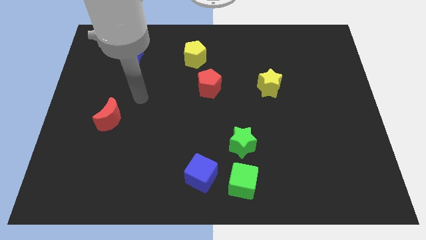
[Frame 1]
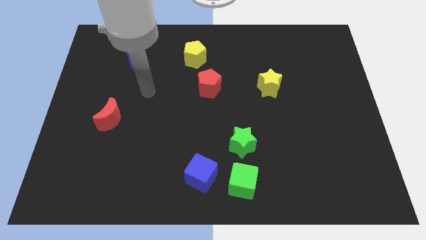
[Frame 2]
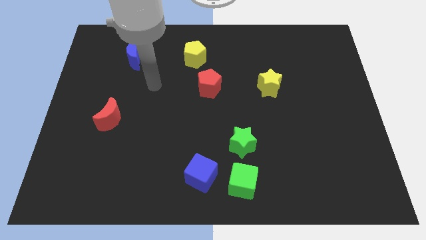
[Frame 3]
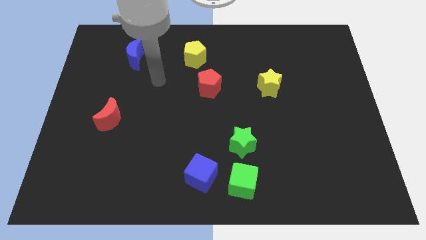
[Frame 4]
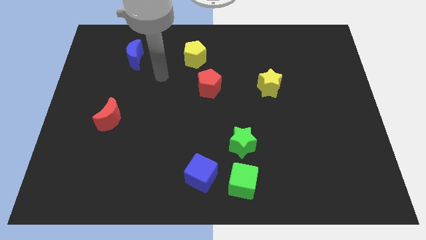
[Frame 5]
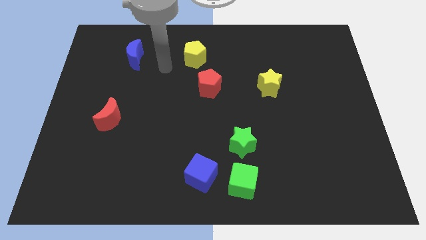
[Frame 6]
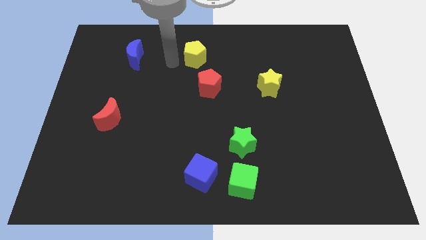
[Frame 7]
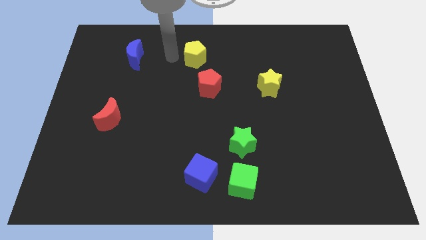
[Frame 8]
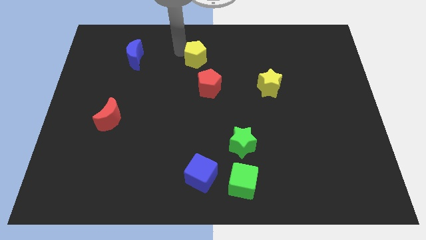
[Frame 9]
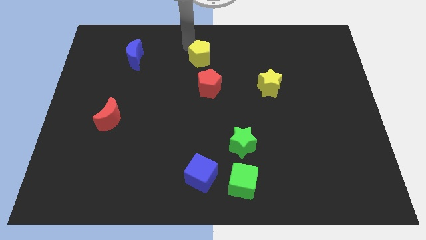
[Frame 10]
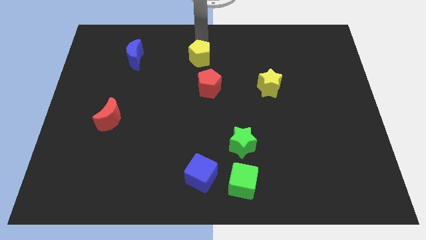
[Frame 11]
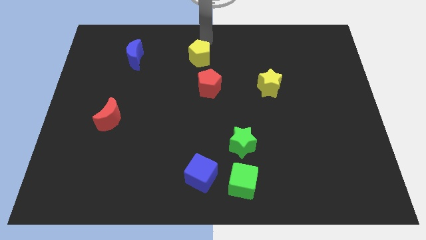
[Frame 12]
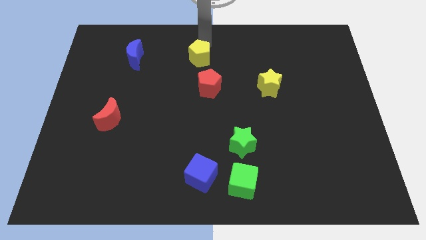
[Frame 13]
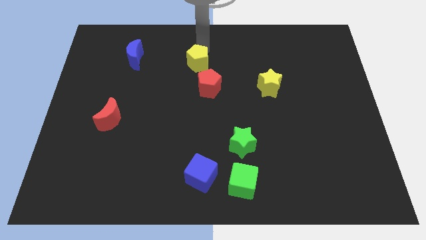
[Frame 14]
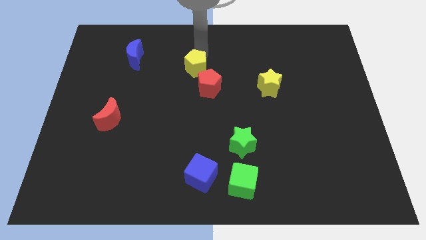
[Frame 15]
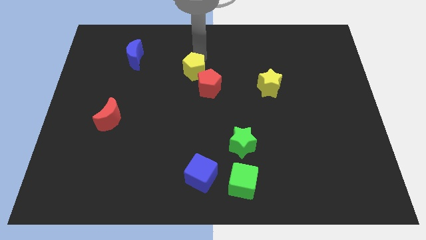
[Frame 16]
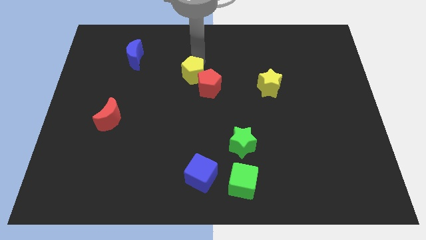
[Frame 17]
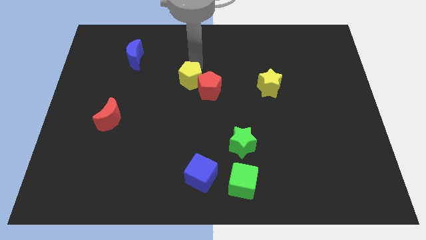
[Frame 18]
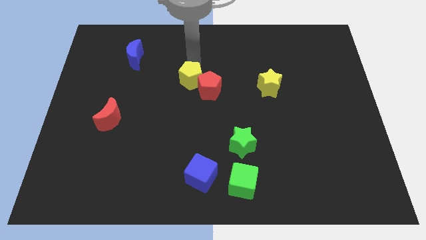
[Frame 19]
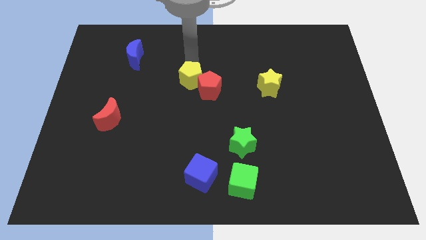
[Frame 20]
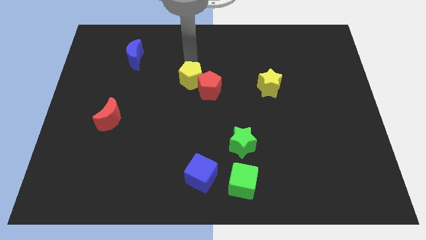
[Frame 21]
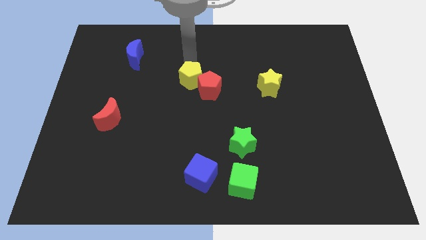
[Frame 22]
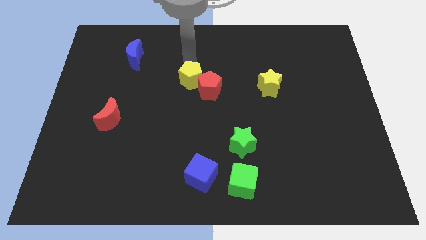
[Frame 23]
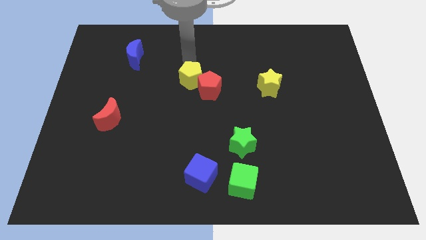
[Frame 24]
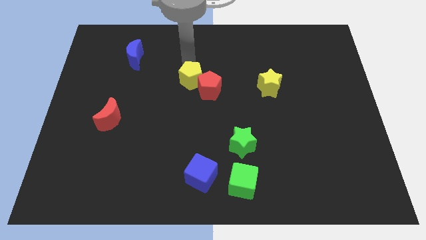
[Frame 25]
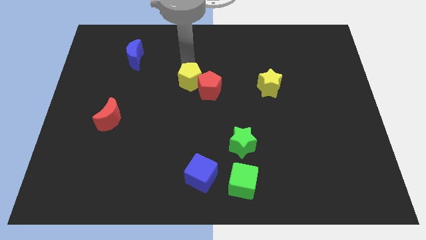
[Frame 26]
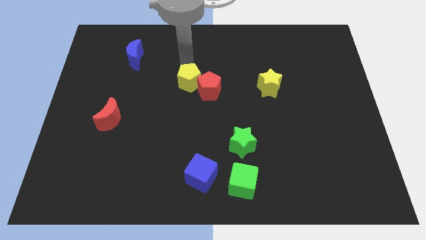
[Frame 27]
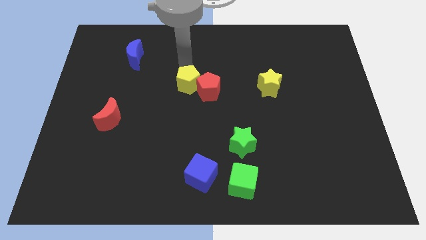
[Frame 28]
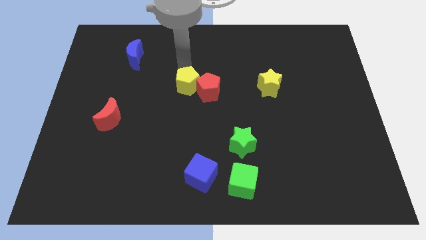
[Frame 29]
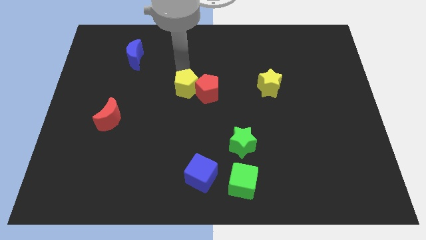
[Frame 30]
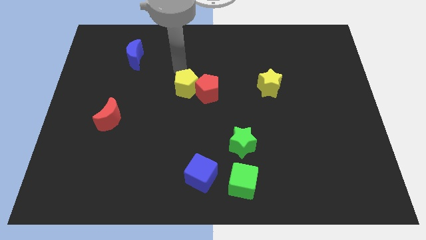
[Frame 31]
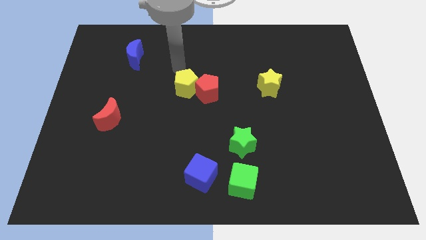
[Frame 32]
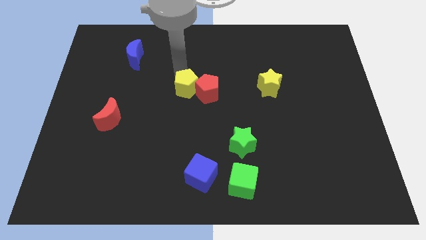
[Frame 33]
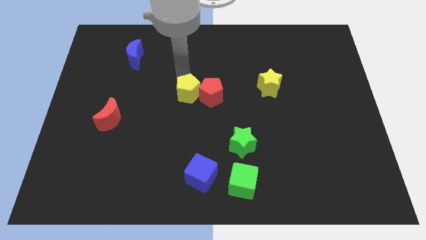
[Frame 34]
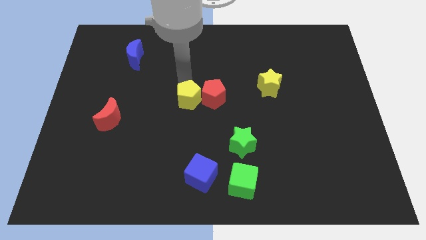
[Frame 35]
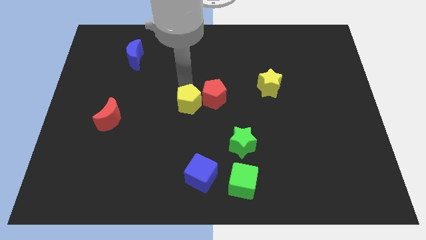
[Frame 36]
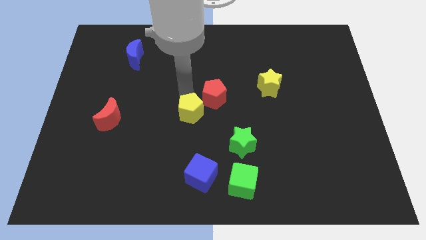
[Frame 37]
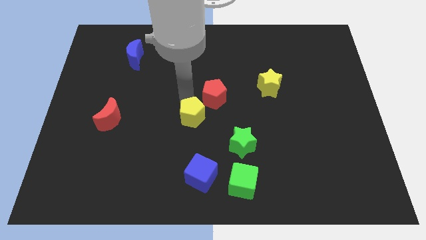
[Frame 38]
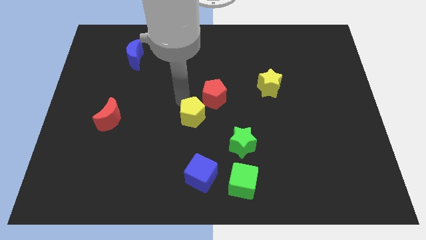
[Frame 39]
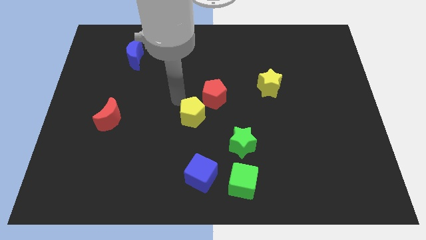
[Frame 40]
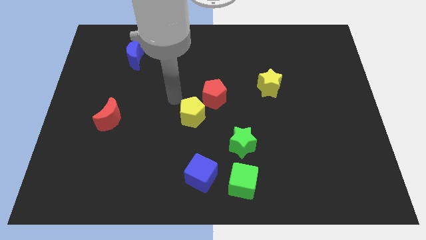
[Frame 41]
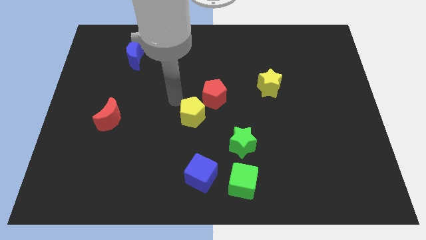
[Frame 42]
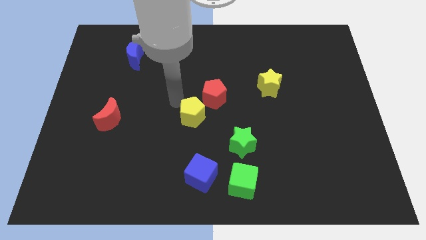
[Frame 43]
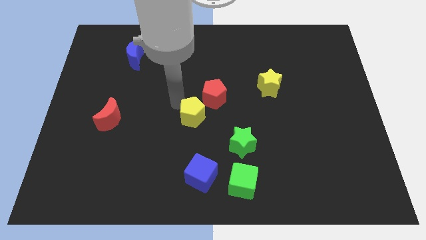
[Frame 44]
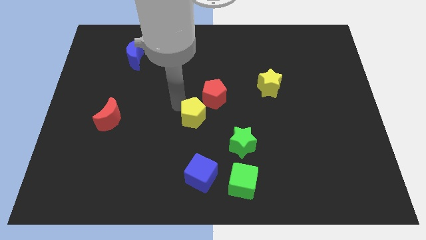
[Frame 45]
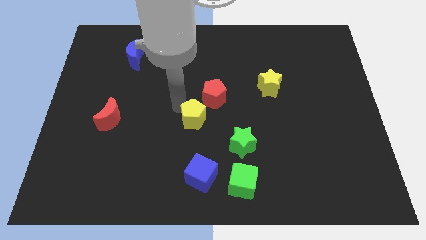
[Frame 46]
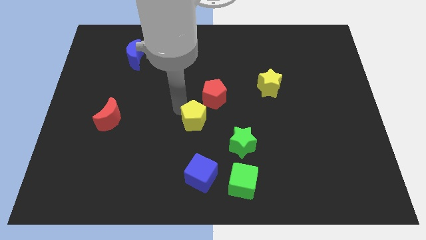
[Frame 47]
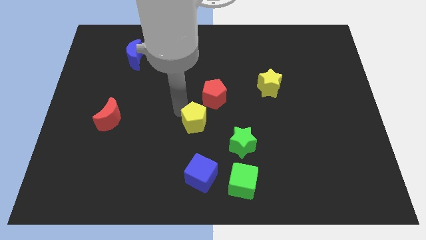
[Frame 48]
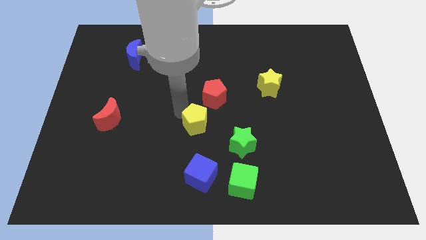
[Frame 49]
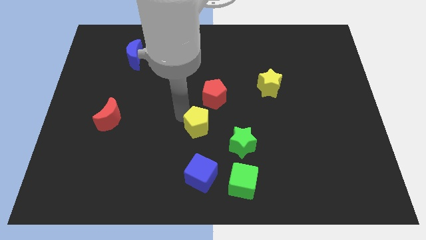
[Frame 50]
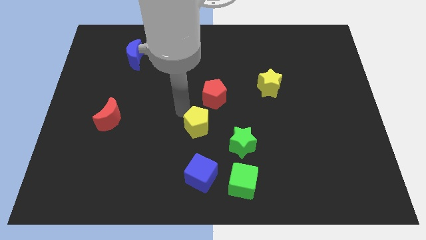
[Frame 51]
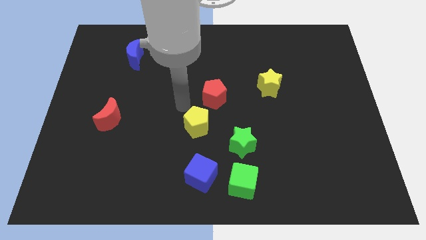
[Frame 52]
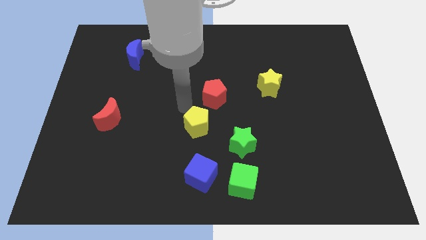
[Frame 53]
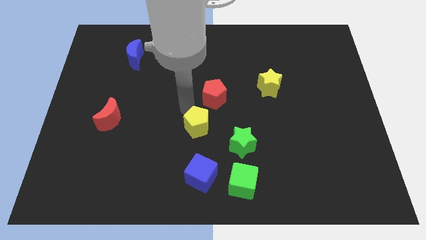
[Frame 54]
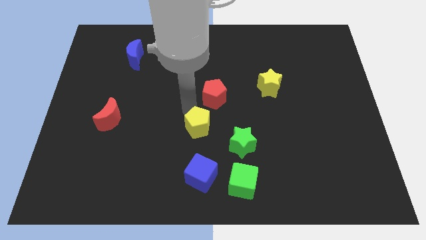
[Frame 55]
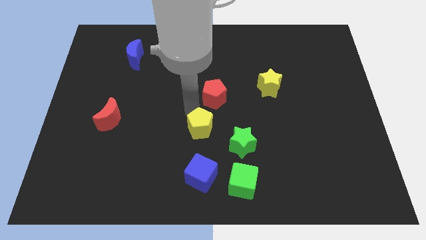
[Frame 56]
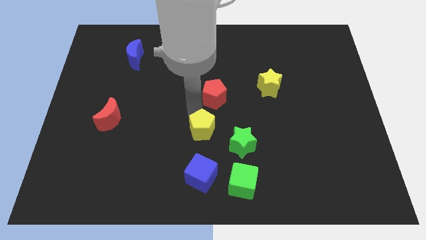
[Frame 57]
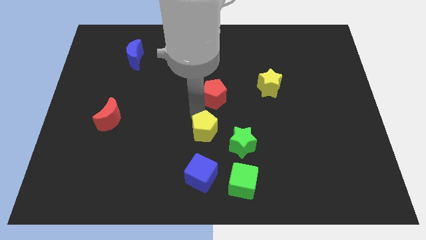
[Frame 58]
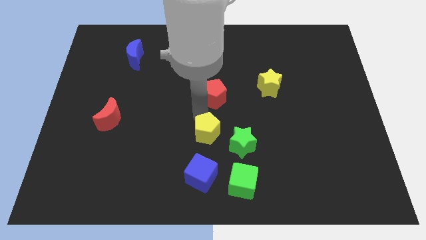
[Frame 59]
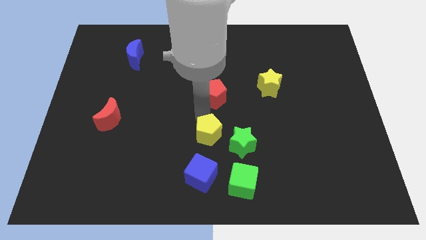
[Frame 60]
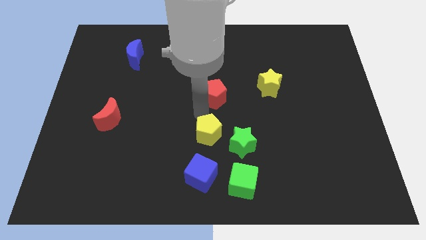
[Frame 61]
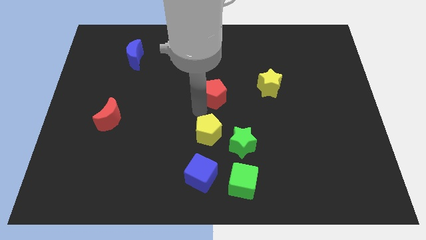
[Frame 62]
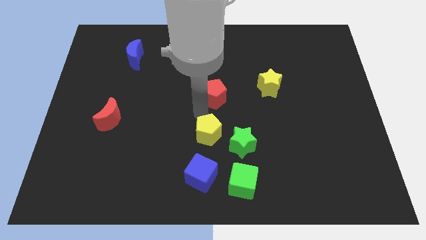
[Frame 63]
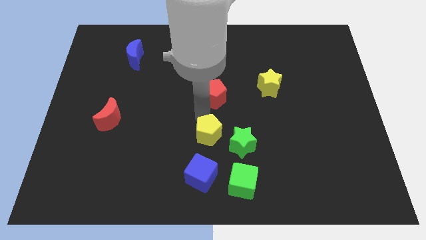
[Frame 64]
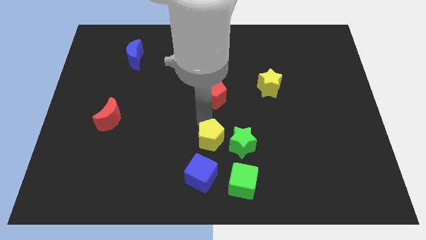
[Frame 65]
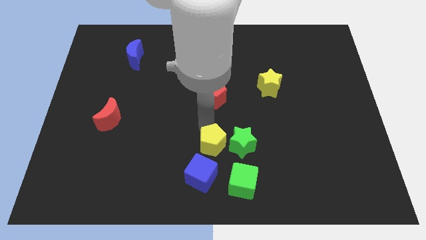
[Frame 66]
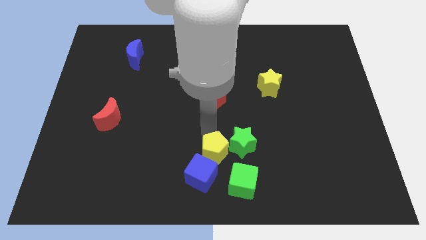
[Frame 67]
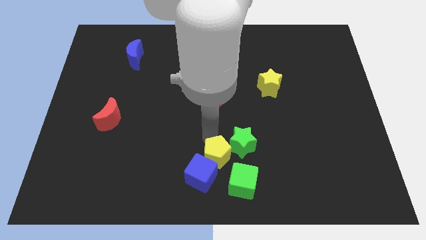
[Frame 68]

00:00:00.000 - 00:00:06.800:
move the yellow pentagon to the bottom
